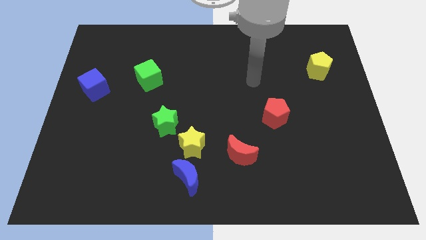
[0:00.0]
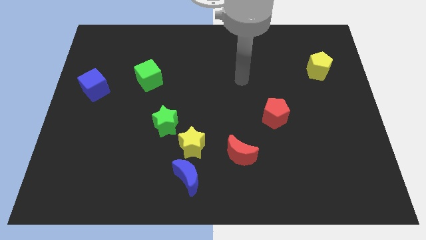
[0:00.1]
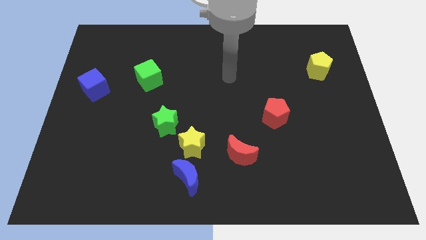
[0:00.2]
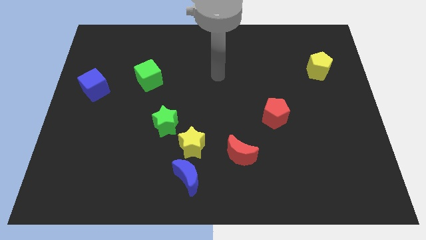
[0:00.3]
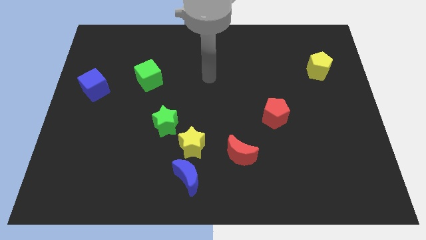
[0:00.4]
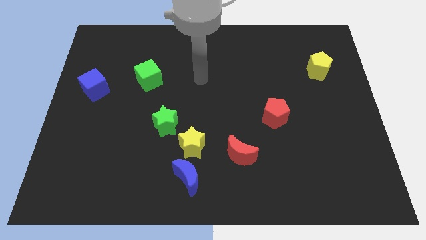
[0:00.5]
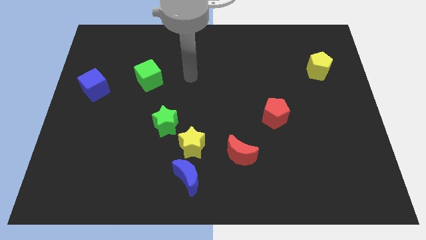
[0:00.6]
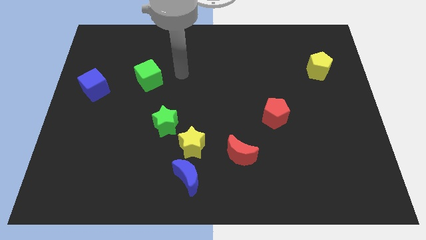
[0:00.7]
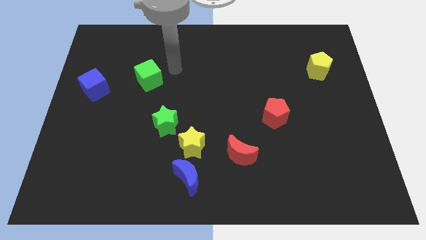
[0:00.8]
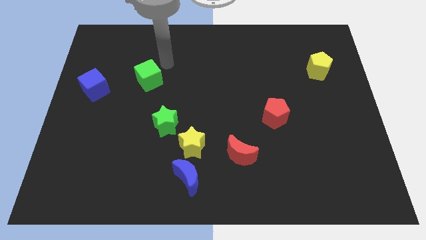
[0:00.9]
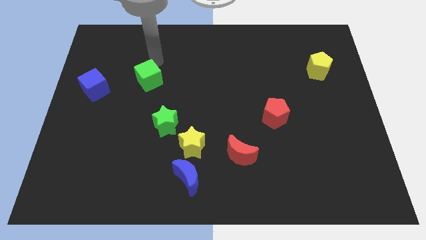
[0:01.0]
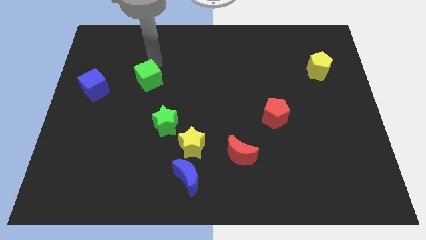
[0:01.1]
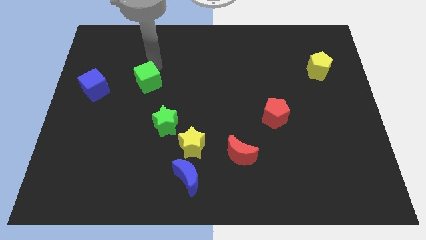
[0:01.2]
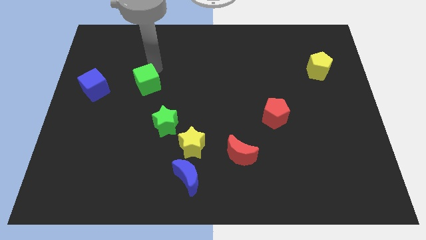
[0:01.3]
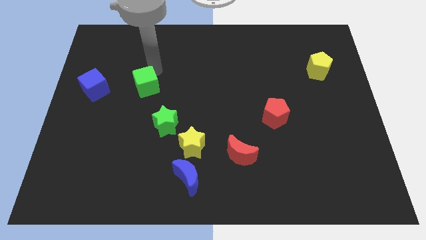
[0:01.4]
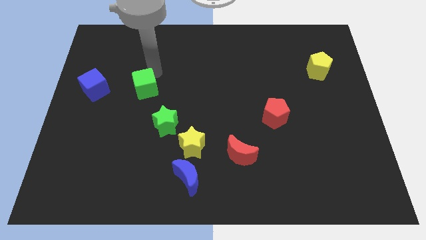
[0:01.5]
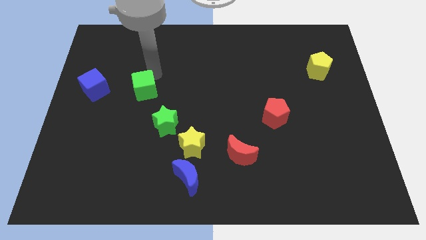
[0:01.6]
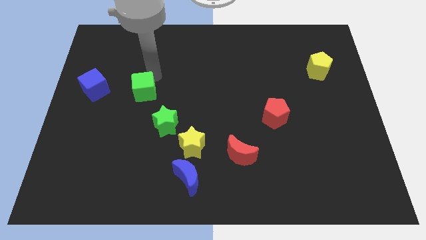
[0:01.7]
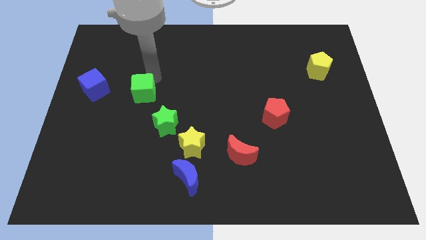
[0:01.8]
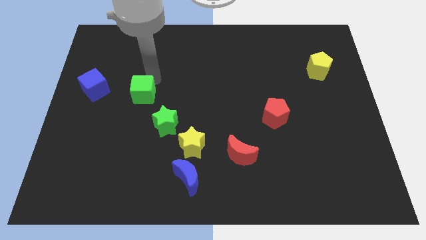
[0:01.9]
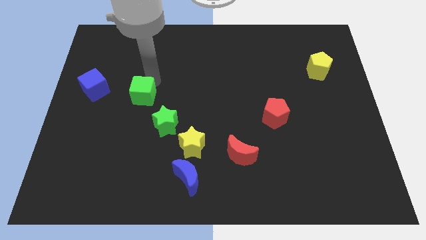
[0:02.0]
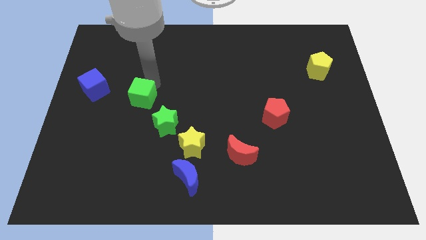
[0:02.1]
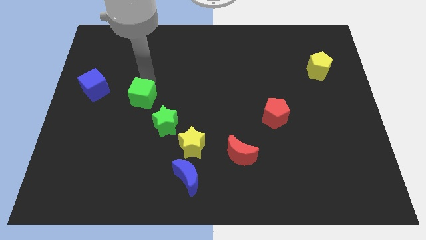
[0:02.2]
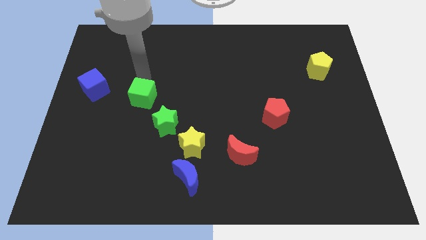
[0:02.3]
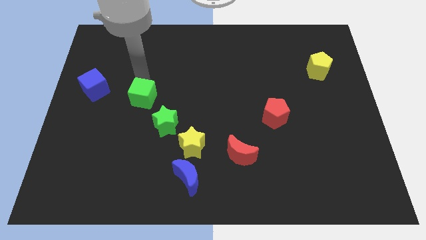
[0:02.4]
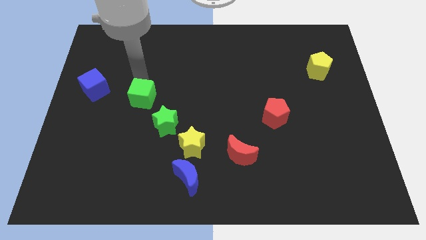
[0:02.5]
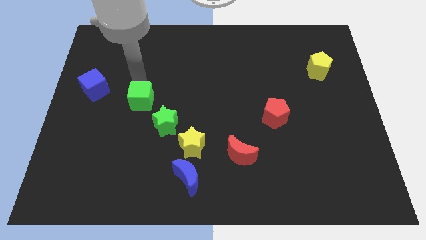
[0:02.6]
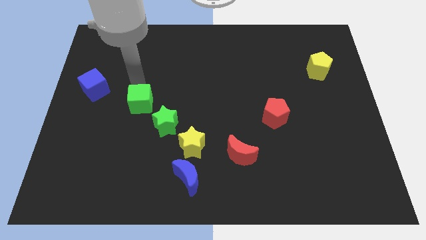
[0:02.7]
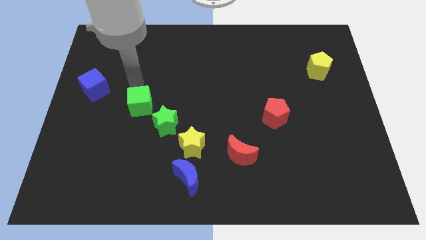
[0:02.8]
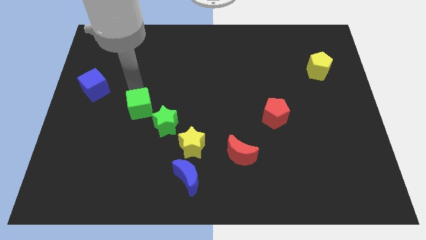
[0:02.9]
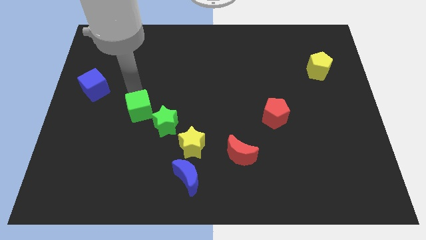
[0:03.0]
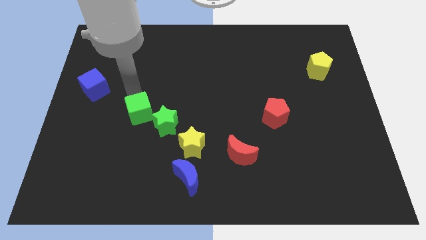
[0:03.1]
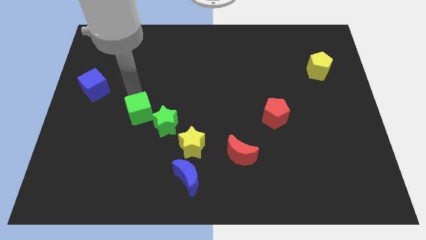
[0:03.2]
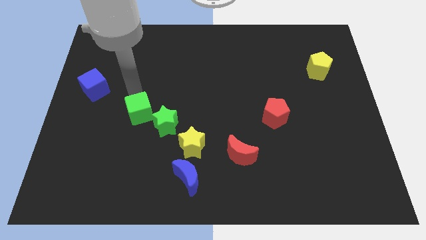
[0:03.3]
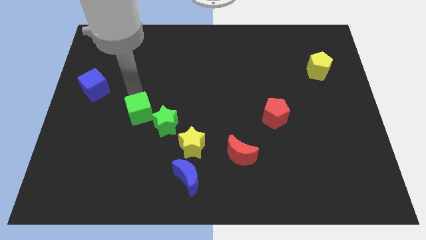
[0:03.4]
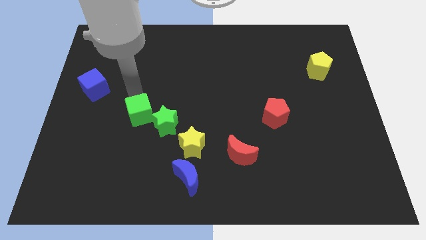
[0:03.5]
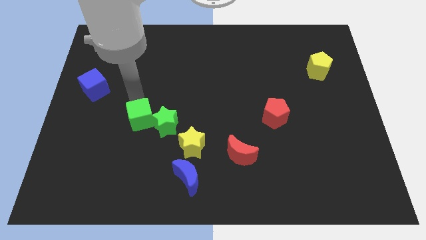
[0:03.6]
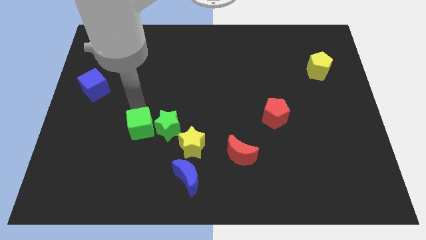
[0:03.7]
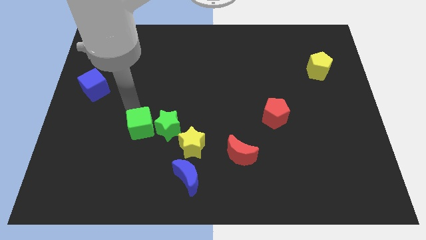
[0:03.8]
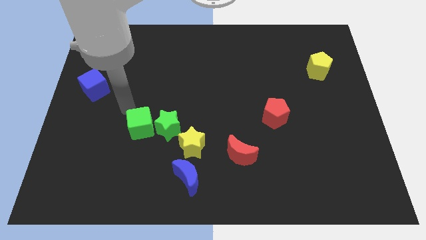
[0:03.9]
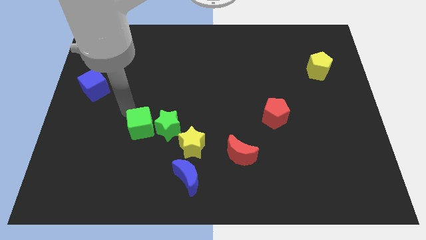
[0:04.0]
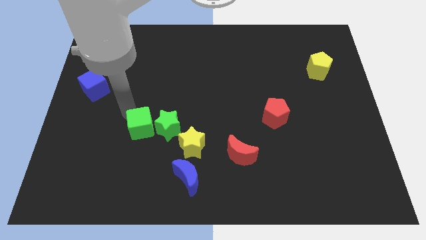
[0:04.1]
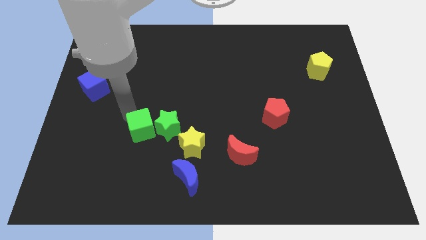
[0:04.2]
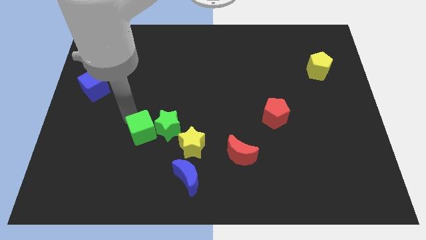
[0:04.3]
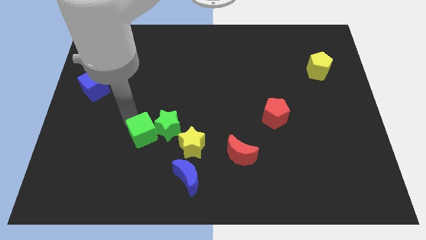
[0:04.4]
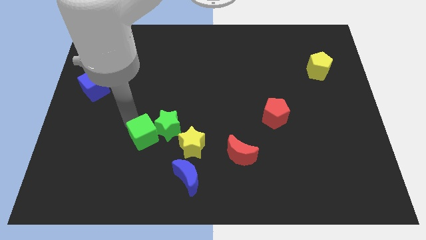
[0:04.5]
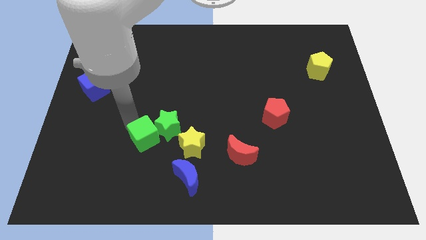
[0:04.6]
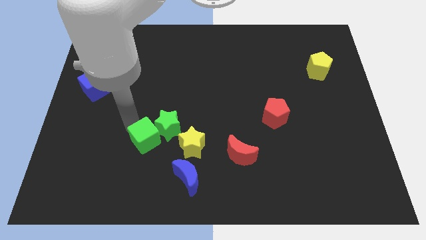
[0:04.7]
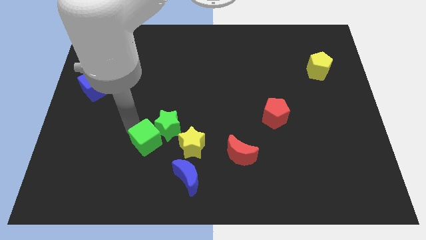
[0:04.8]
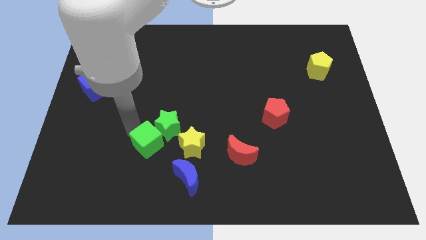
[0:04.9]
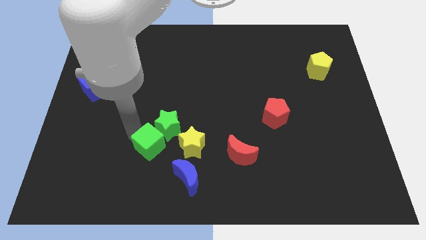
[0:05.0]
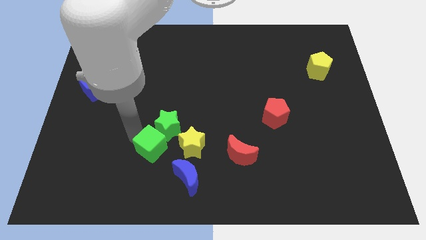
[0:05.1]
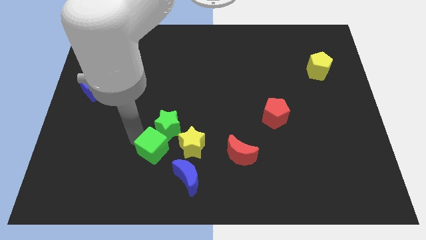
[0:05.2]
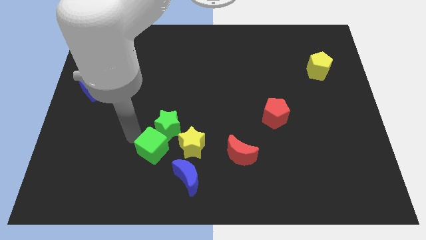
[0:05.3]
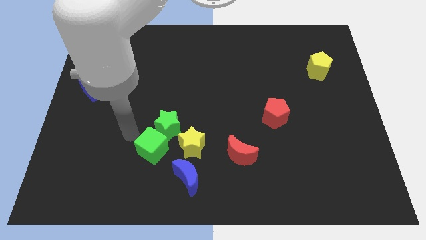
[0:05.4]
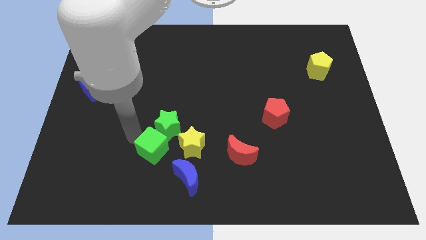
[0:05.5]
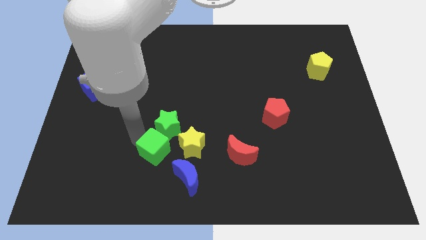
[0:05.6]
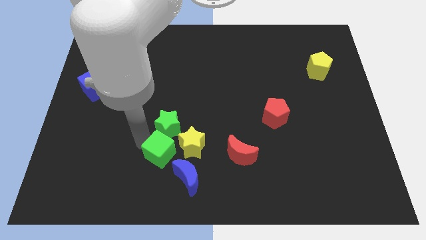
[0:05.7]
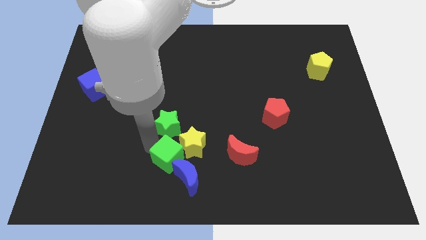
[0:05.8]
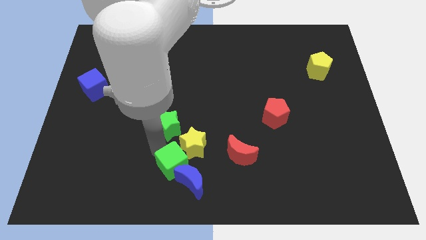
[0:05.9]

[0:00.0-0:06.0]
put the green cube towards the blue moon

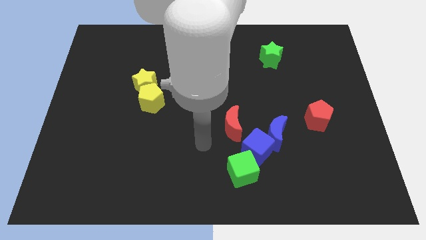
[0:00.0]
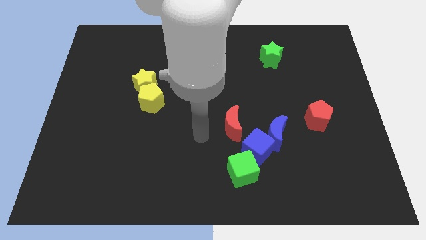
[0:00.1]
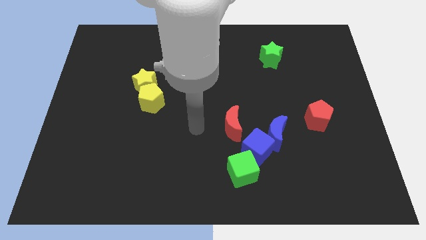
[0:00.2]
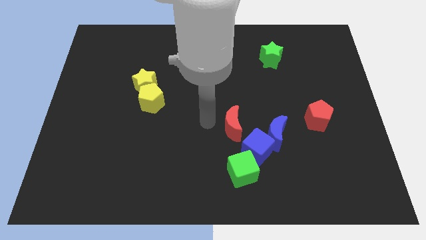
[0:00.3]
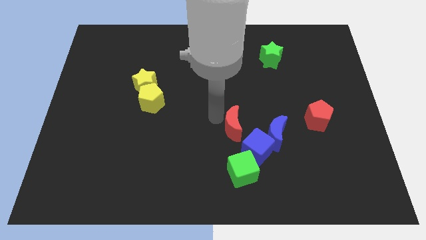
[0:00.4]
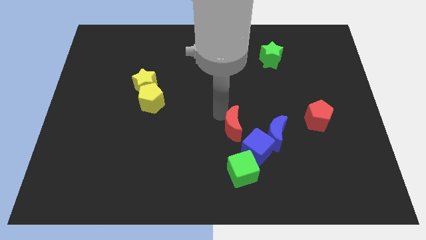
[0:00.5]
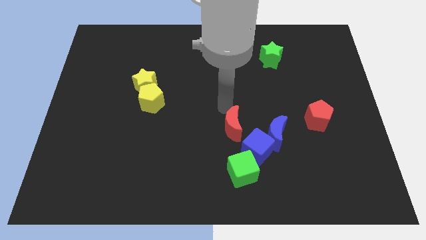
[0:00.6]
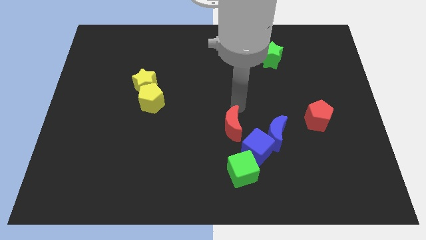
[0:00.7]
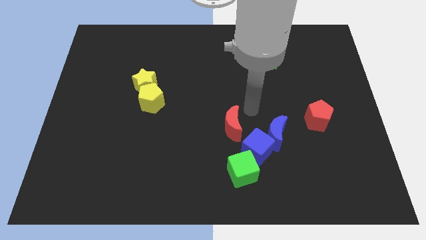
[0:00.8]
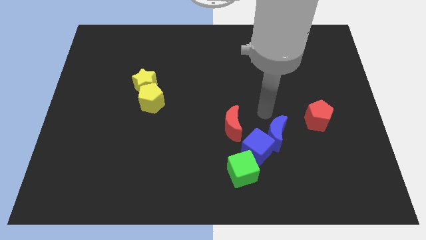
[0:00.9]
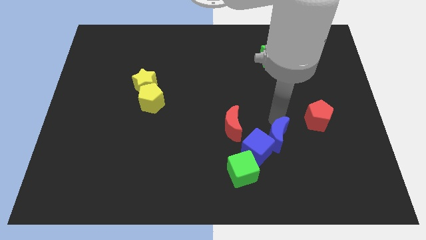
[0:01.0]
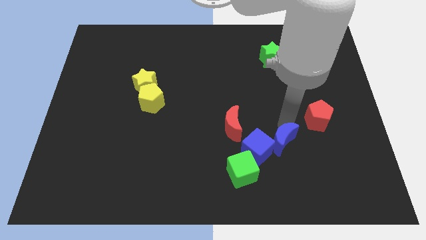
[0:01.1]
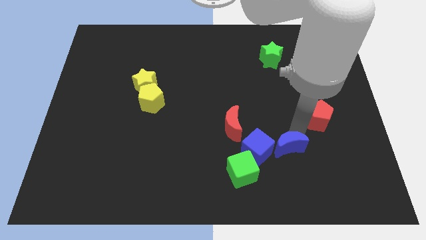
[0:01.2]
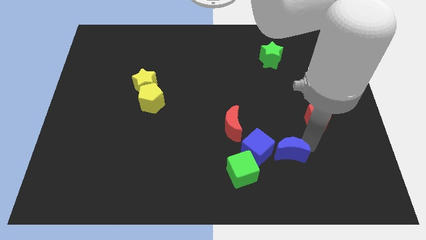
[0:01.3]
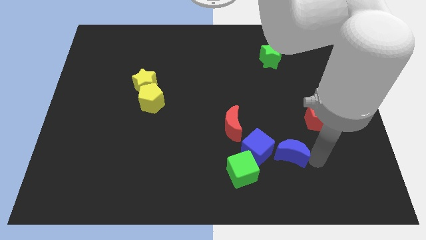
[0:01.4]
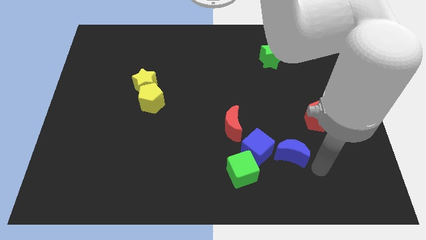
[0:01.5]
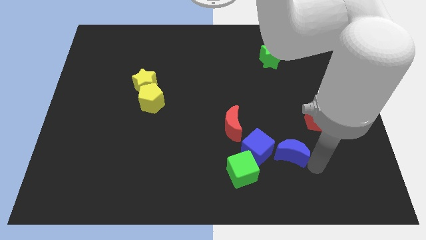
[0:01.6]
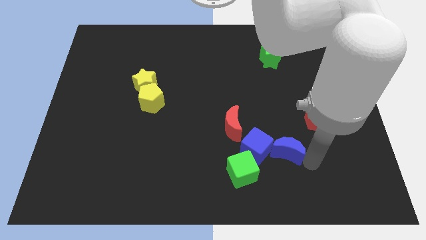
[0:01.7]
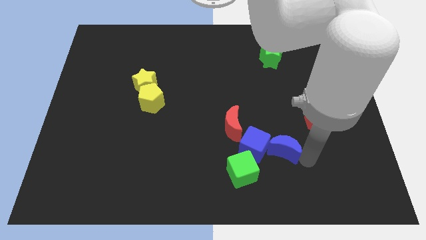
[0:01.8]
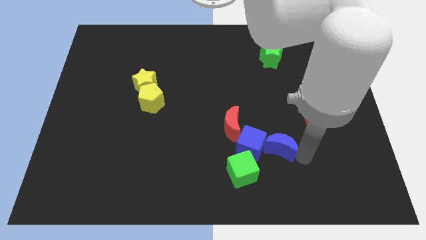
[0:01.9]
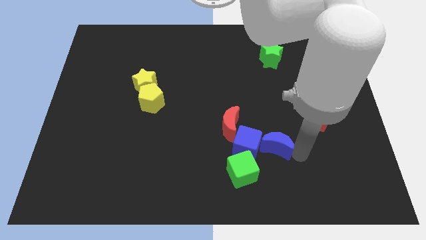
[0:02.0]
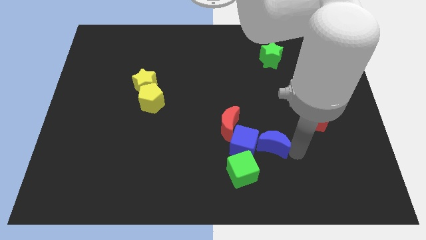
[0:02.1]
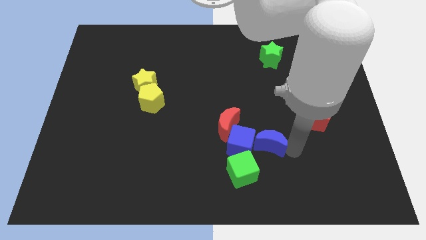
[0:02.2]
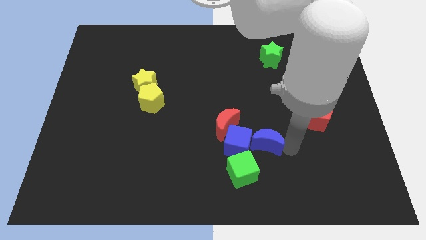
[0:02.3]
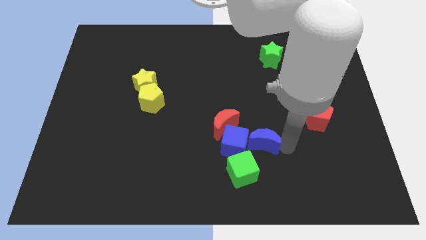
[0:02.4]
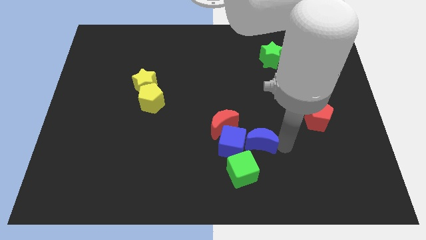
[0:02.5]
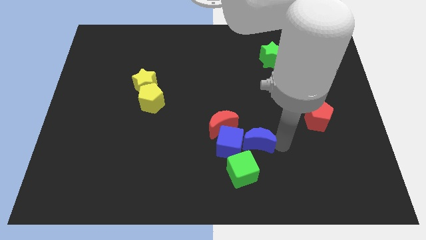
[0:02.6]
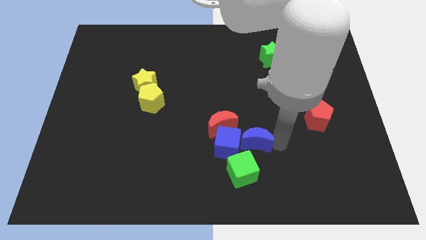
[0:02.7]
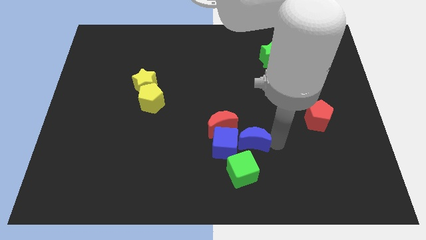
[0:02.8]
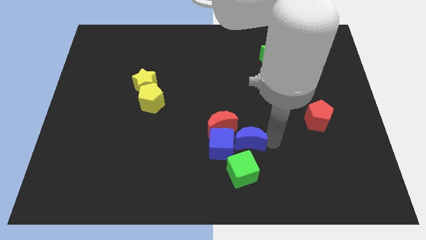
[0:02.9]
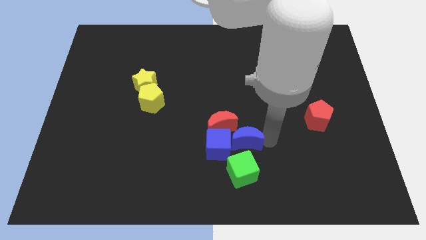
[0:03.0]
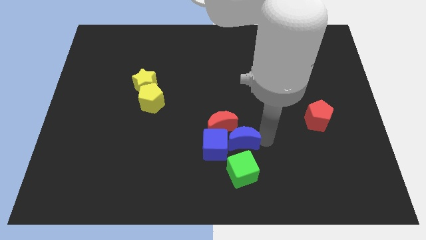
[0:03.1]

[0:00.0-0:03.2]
push the blue moon towards the red moon
